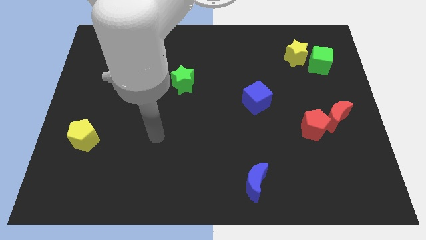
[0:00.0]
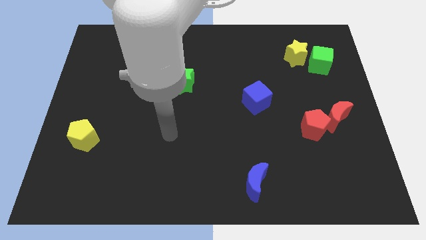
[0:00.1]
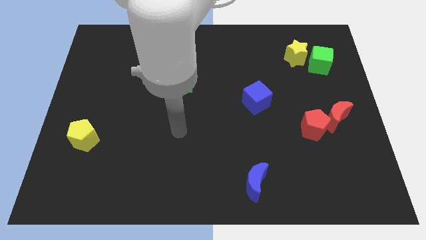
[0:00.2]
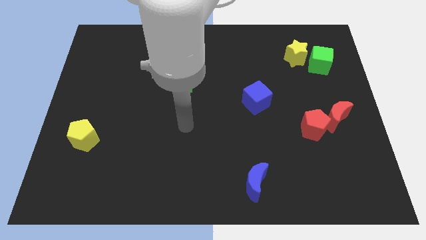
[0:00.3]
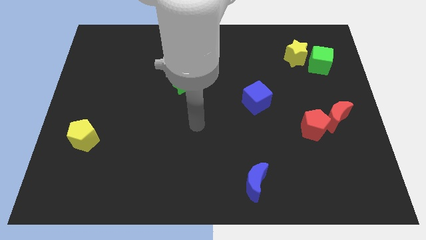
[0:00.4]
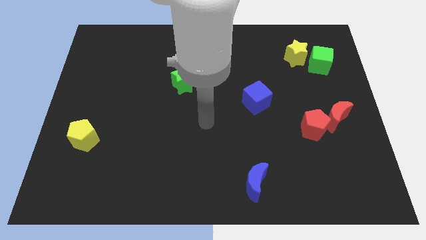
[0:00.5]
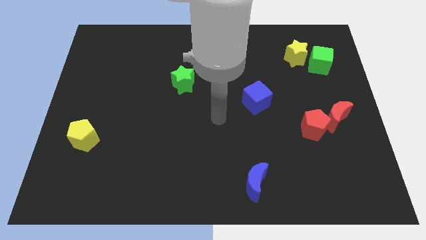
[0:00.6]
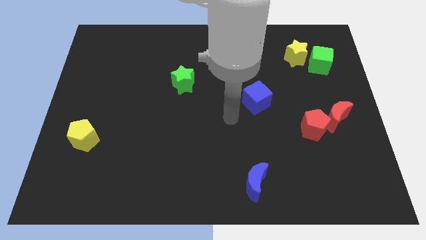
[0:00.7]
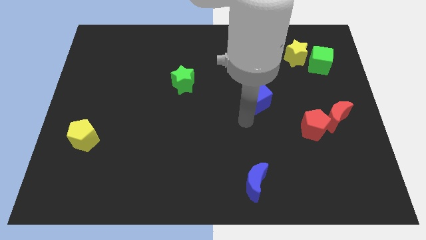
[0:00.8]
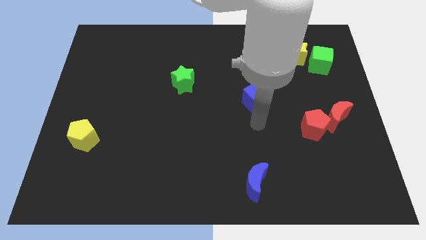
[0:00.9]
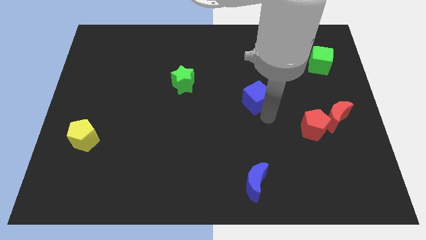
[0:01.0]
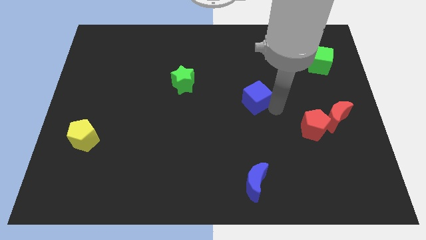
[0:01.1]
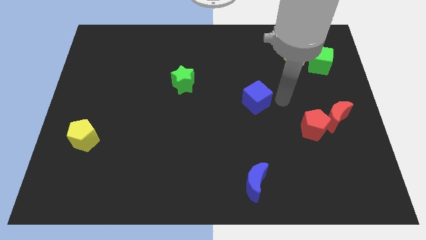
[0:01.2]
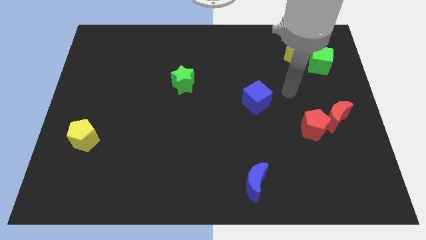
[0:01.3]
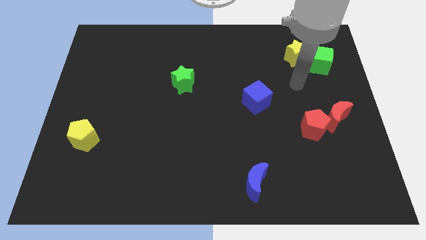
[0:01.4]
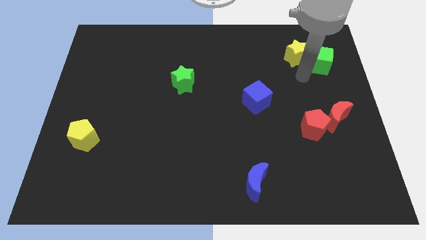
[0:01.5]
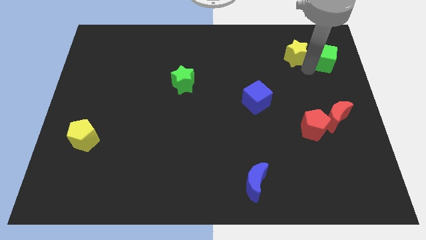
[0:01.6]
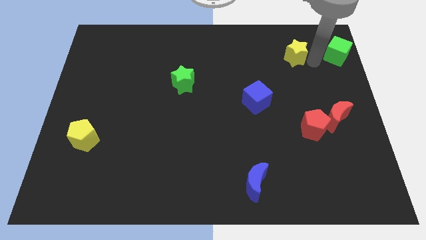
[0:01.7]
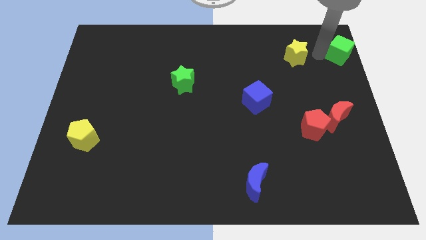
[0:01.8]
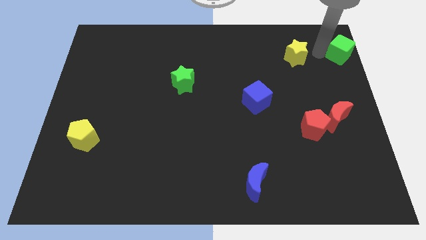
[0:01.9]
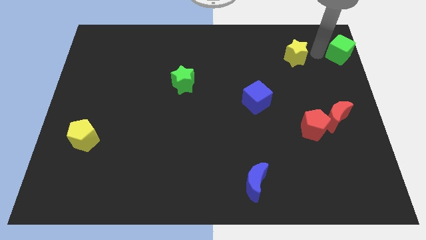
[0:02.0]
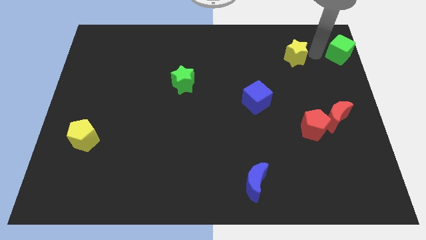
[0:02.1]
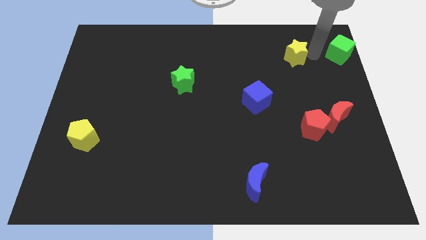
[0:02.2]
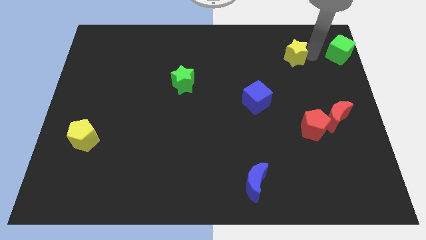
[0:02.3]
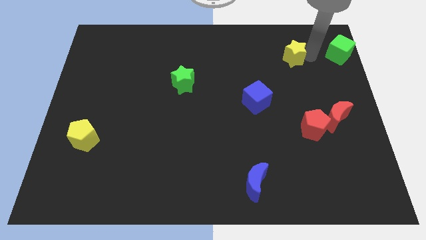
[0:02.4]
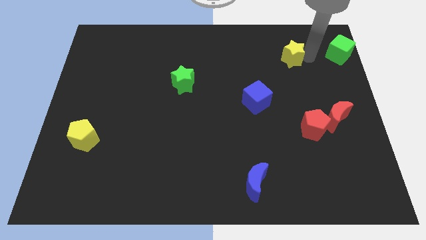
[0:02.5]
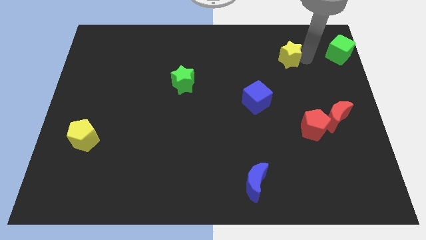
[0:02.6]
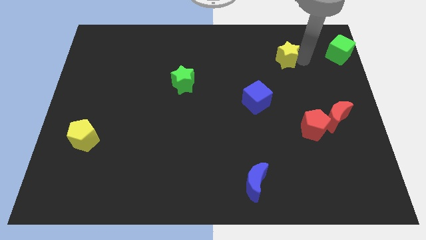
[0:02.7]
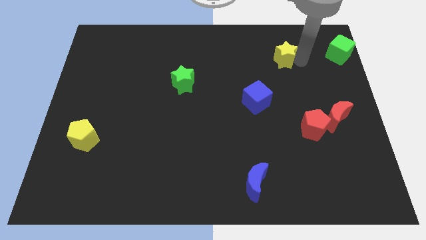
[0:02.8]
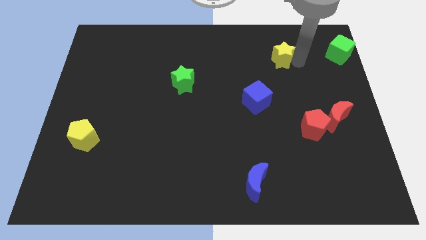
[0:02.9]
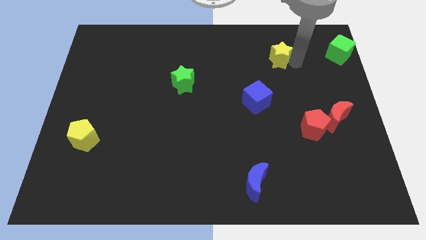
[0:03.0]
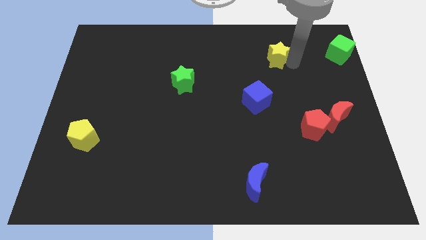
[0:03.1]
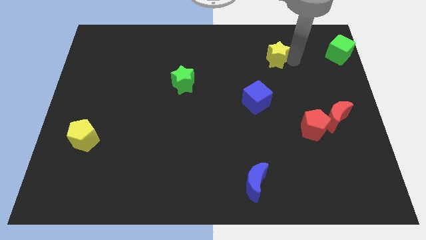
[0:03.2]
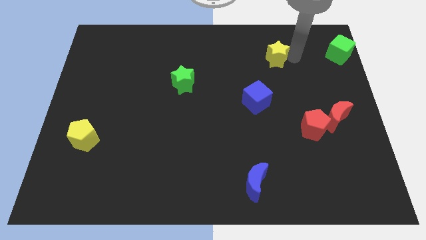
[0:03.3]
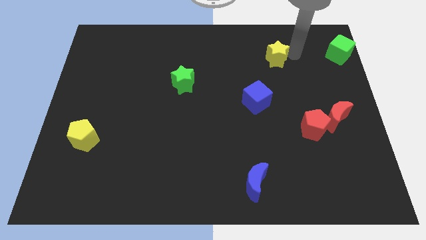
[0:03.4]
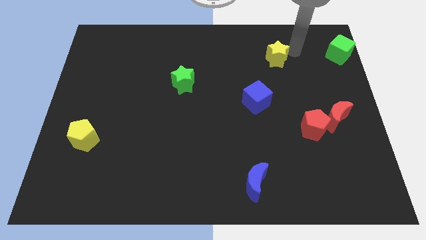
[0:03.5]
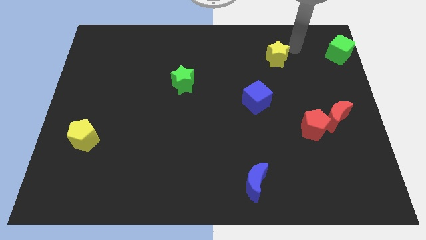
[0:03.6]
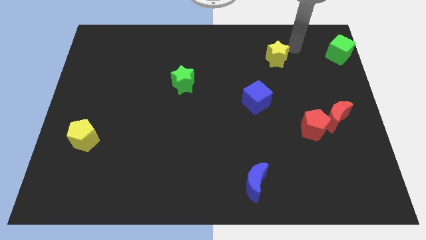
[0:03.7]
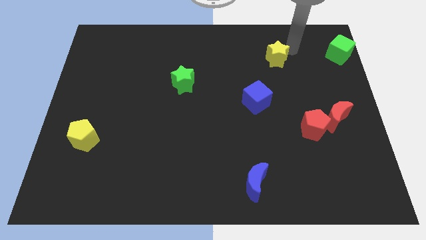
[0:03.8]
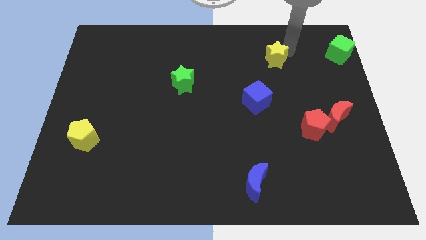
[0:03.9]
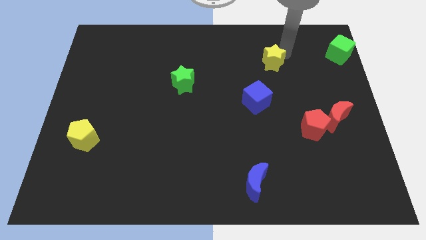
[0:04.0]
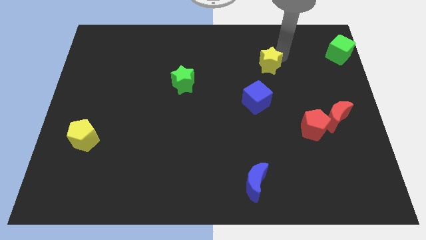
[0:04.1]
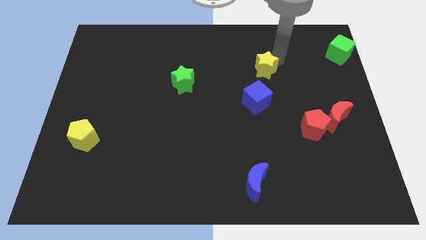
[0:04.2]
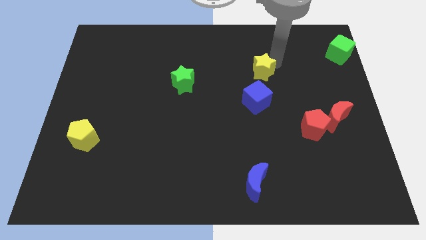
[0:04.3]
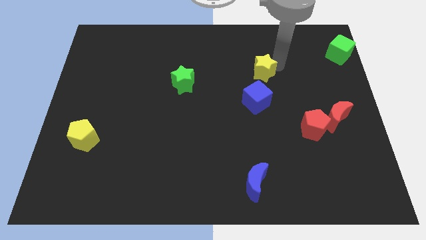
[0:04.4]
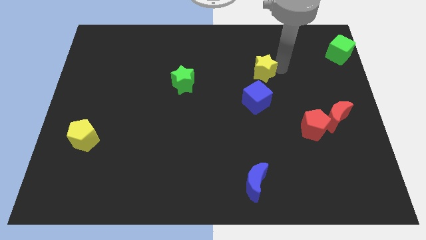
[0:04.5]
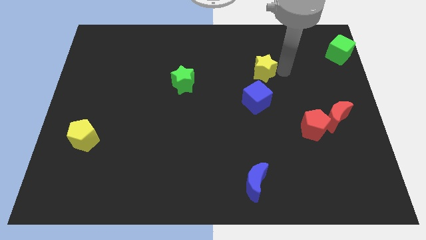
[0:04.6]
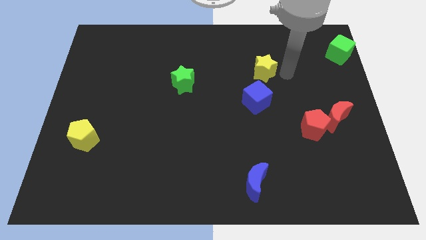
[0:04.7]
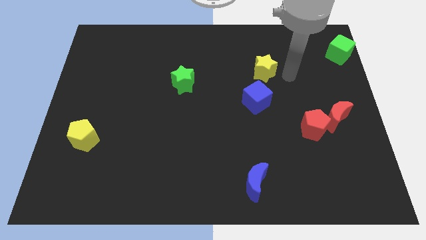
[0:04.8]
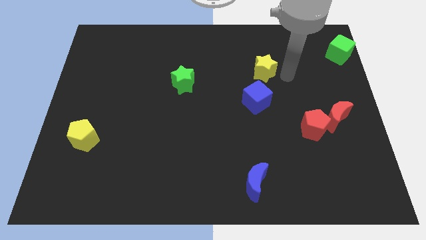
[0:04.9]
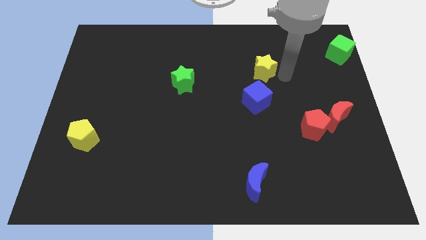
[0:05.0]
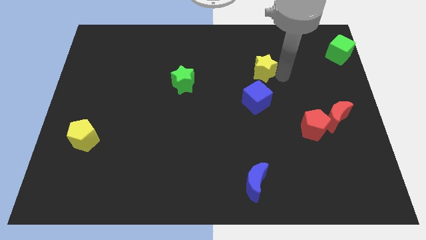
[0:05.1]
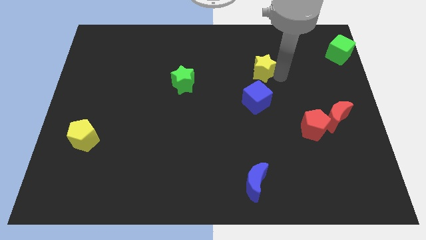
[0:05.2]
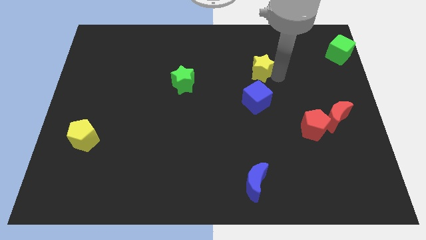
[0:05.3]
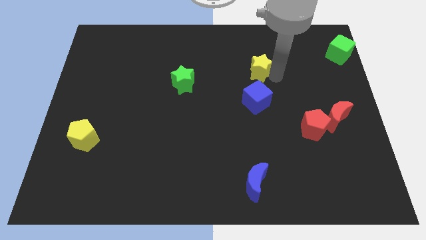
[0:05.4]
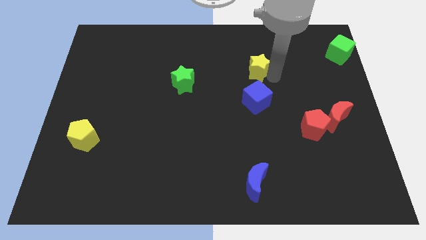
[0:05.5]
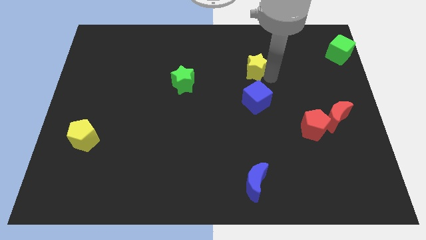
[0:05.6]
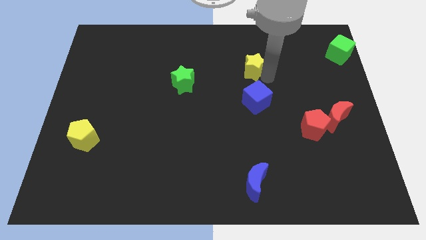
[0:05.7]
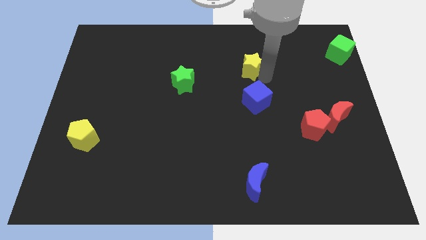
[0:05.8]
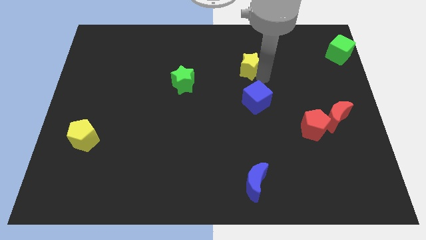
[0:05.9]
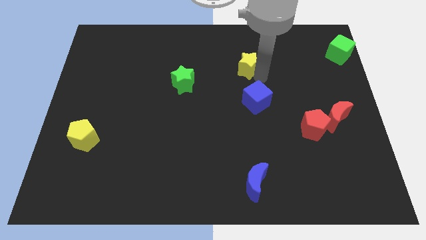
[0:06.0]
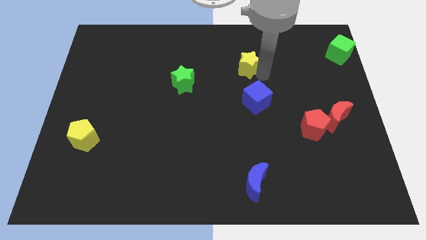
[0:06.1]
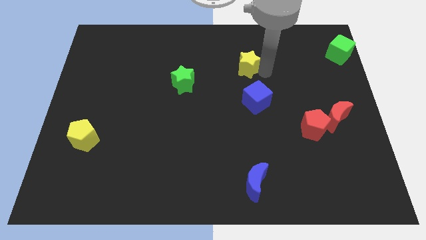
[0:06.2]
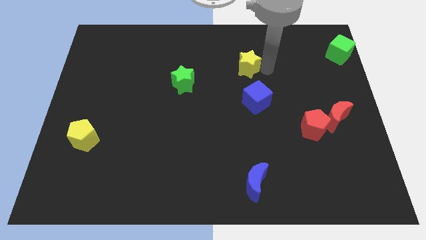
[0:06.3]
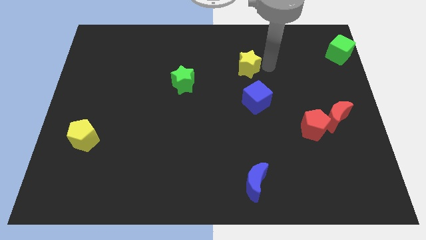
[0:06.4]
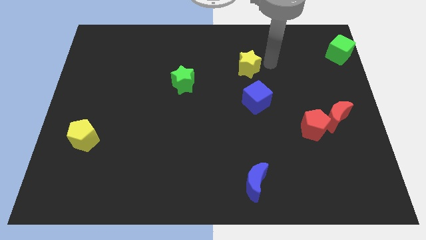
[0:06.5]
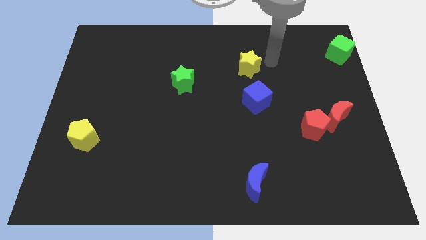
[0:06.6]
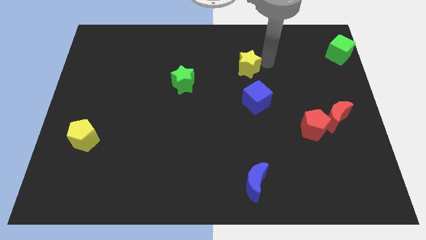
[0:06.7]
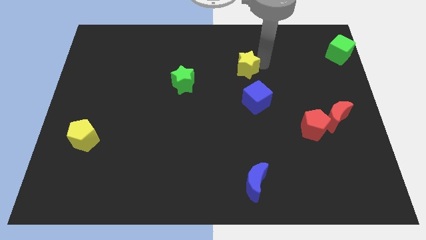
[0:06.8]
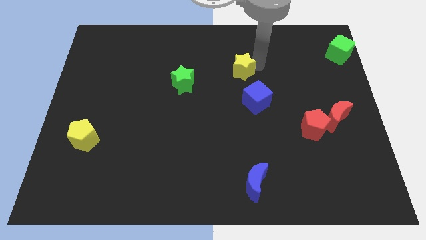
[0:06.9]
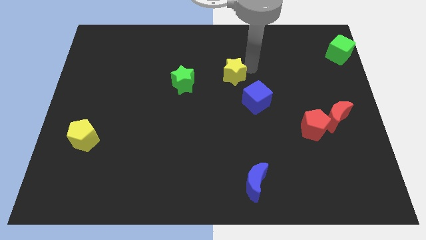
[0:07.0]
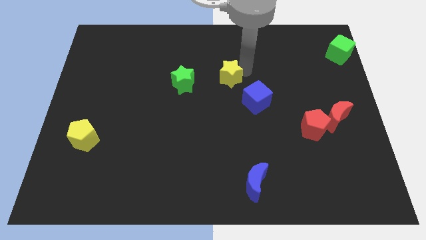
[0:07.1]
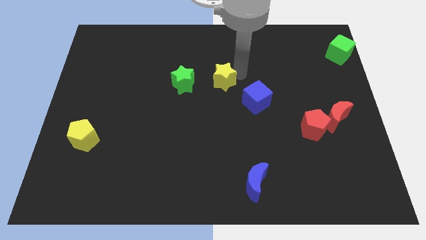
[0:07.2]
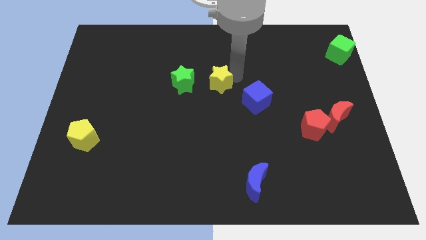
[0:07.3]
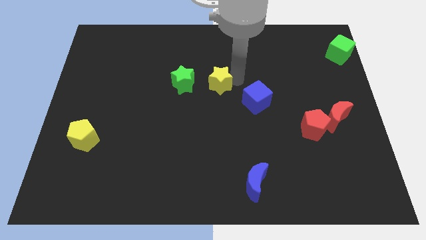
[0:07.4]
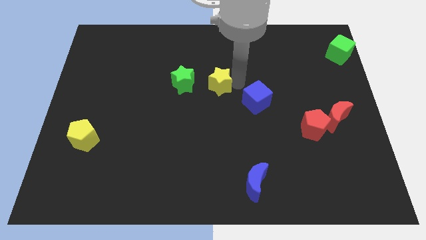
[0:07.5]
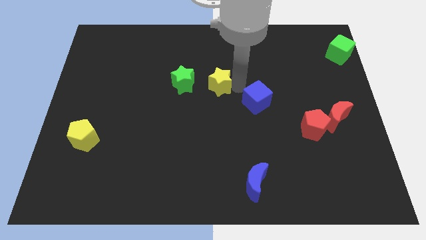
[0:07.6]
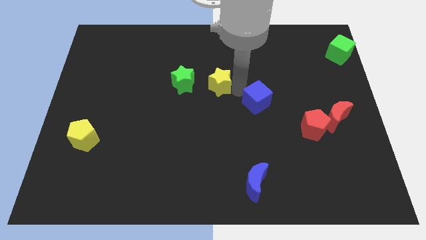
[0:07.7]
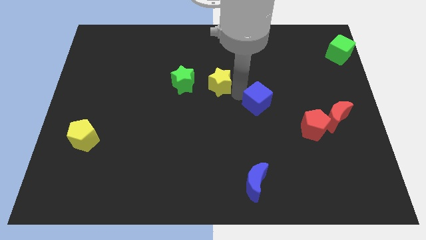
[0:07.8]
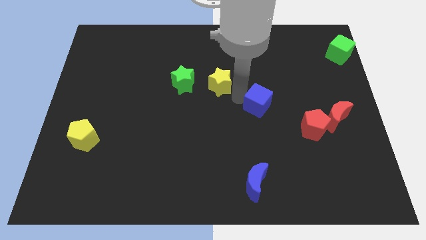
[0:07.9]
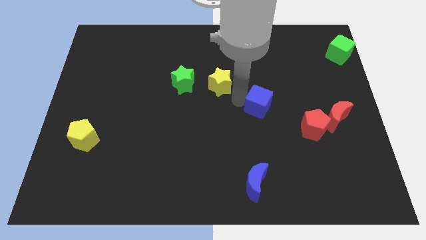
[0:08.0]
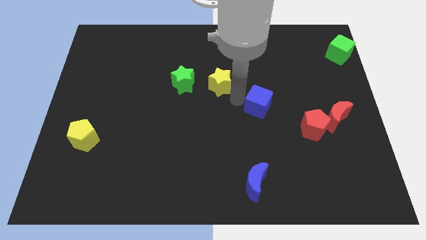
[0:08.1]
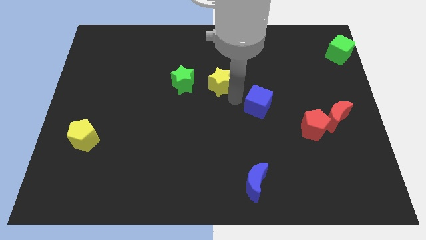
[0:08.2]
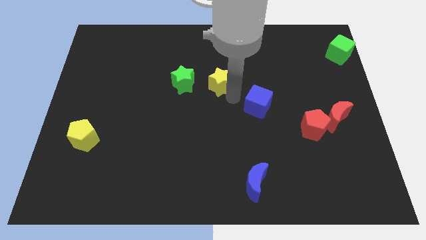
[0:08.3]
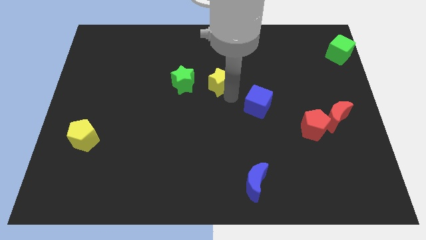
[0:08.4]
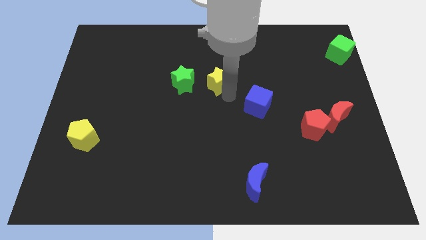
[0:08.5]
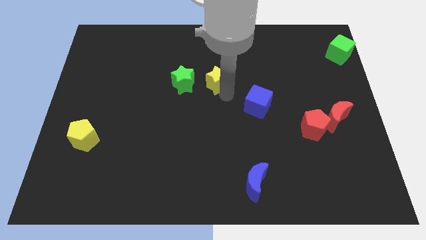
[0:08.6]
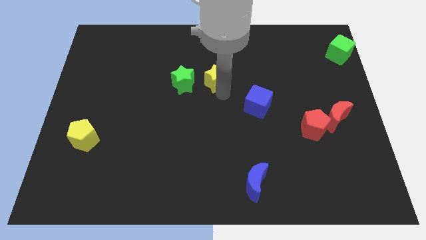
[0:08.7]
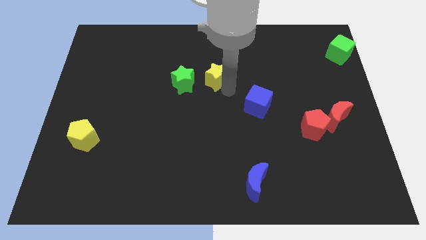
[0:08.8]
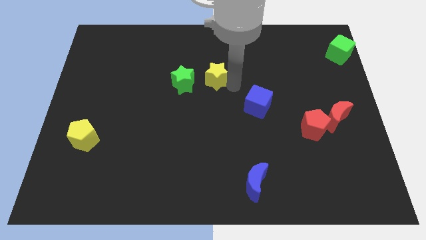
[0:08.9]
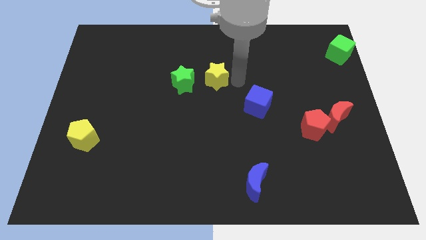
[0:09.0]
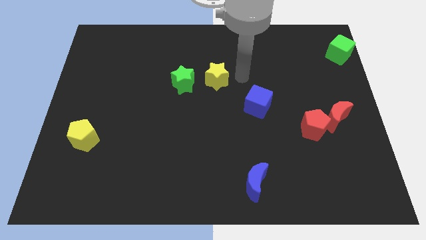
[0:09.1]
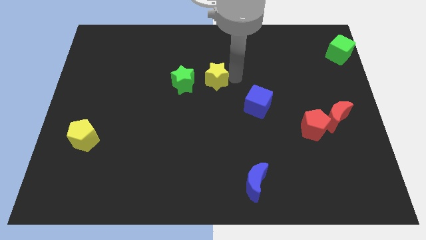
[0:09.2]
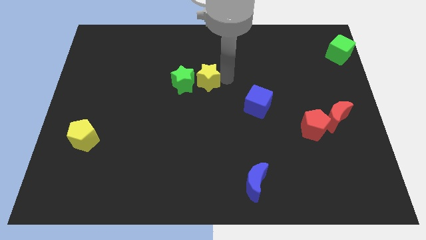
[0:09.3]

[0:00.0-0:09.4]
move the yellow star close to the green star
